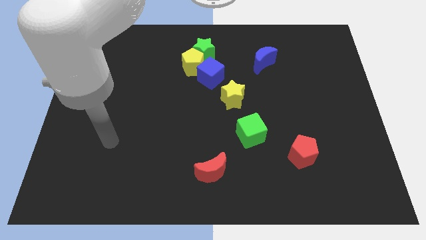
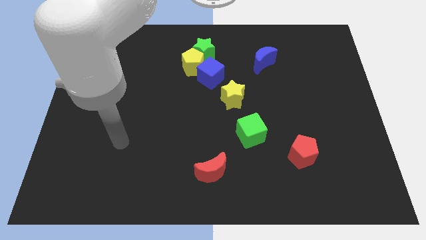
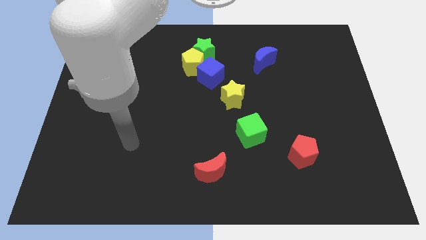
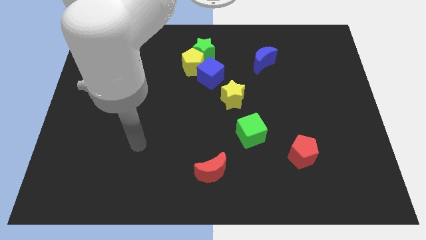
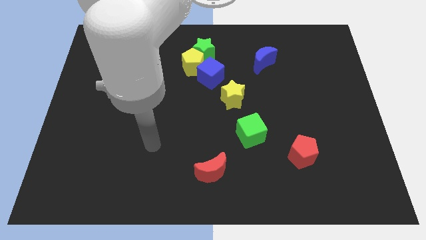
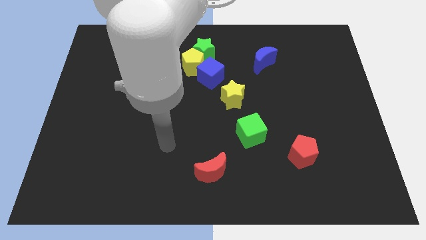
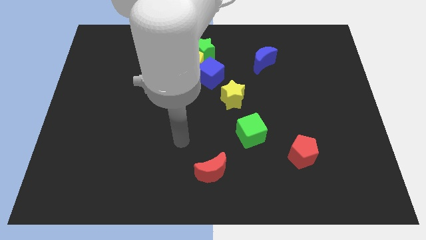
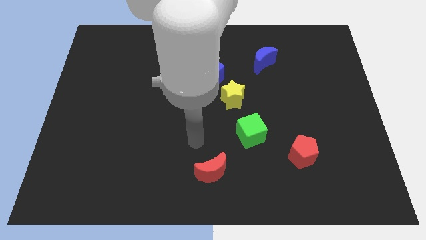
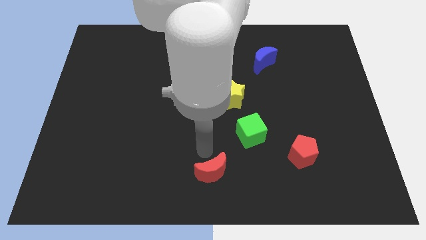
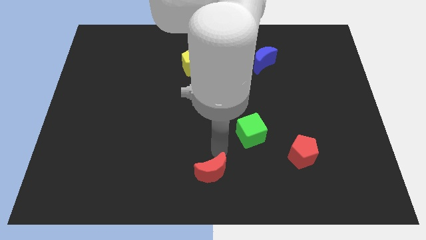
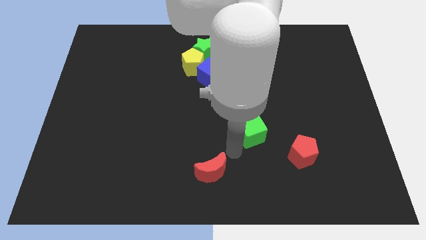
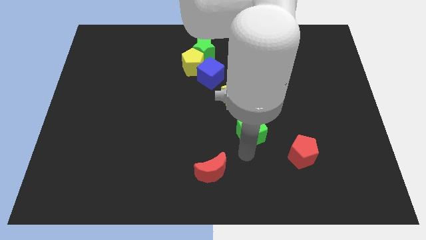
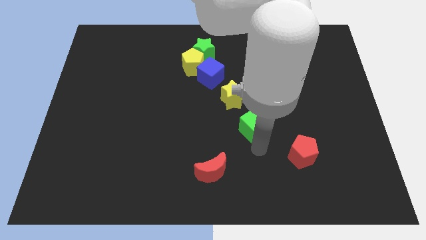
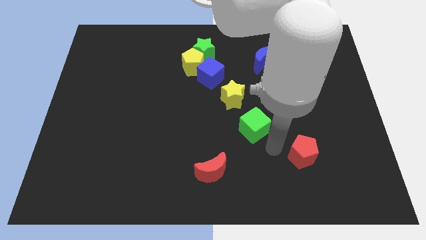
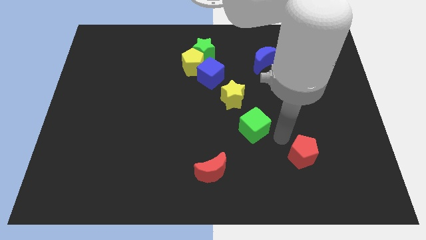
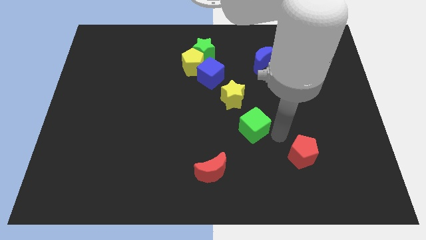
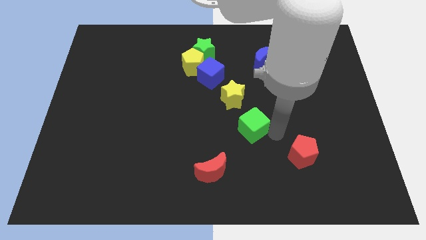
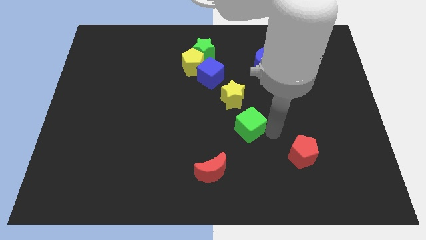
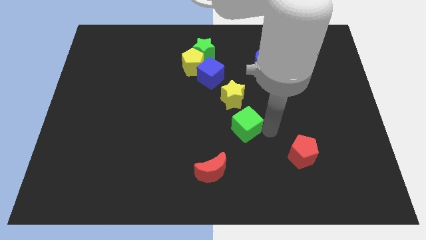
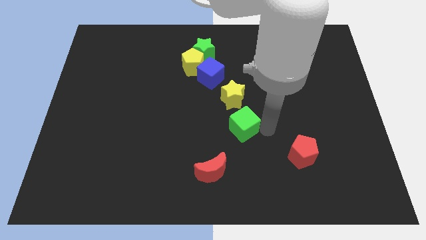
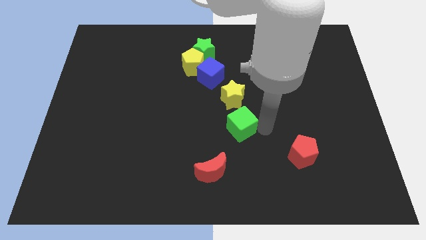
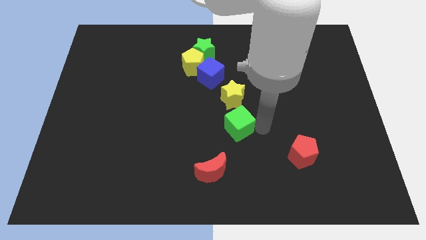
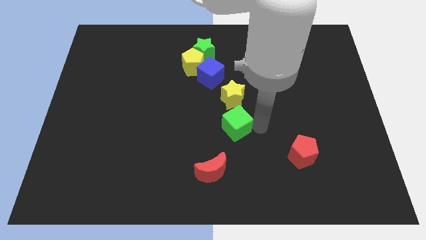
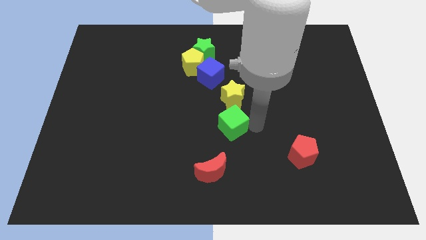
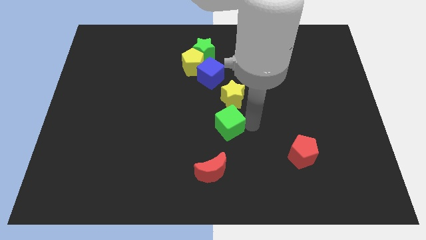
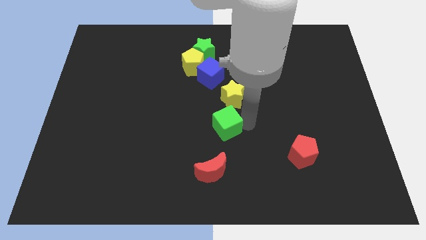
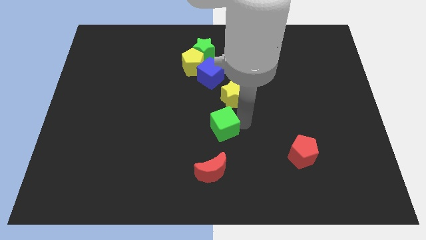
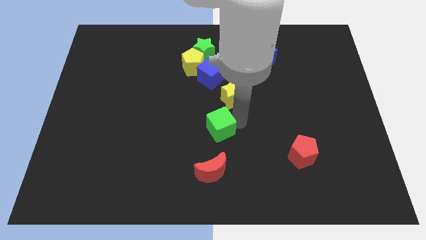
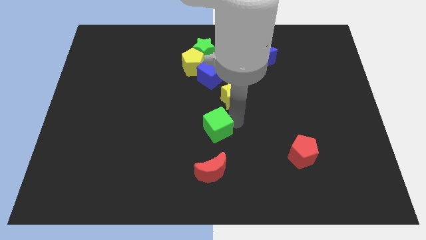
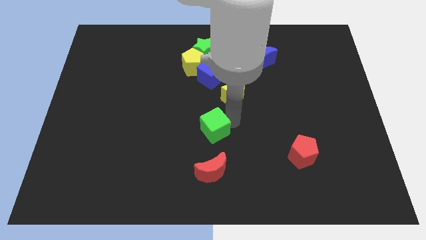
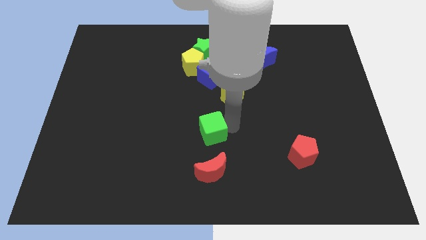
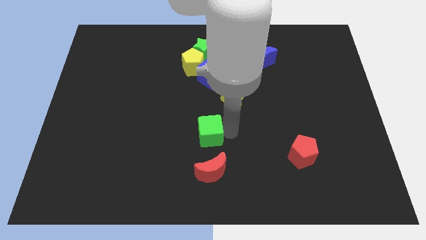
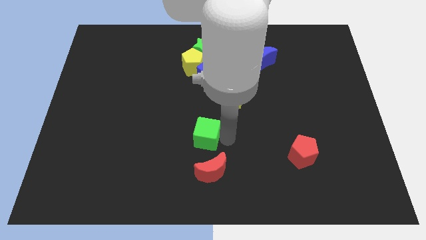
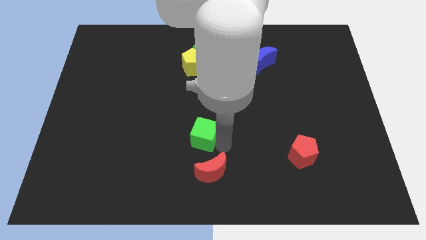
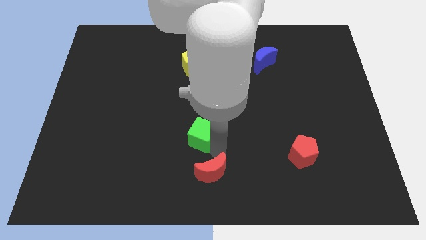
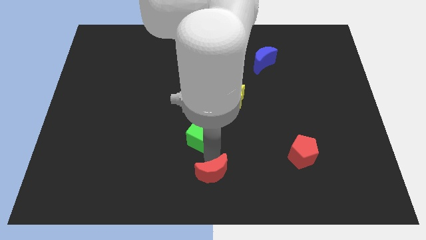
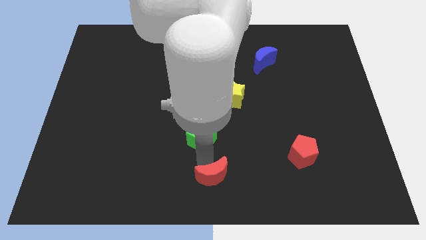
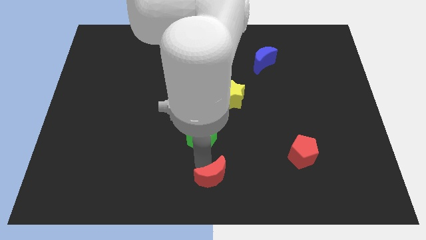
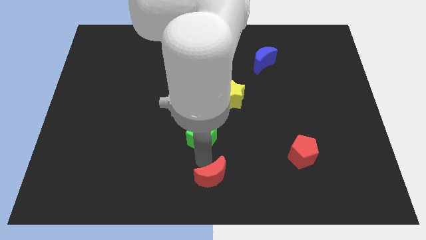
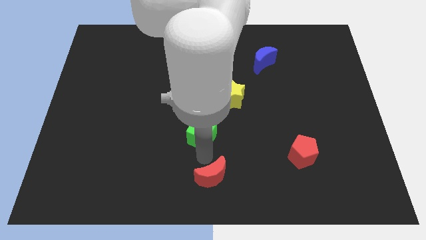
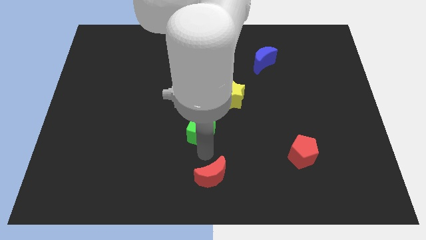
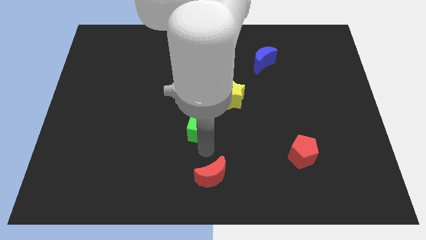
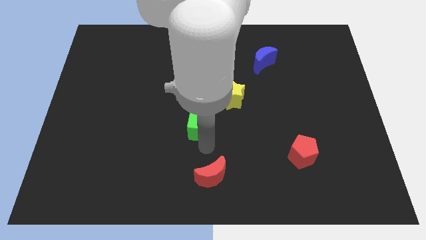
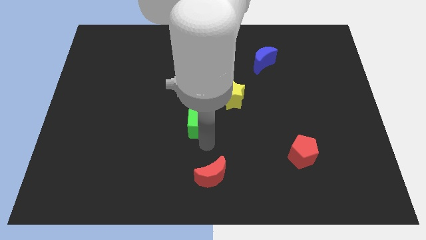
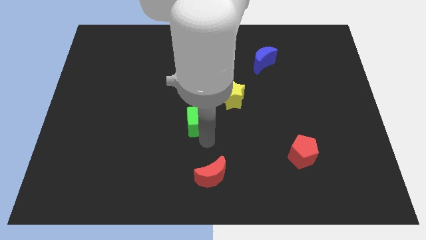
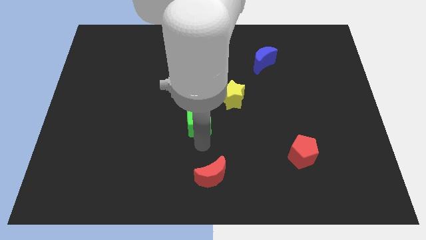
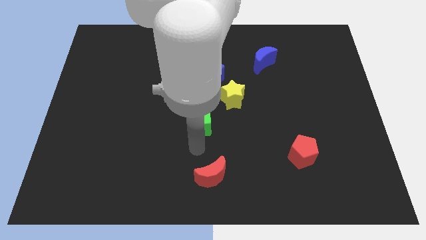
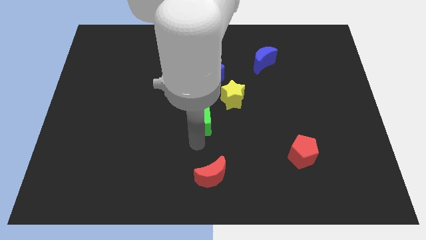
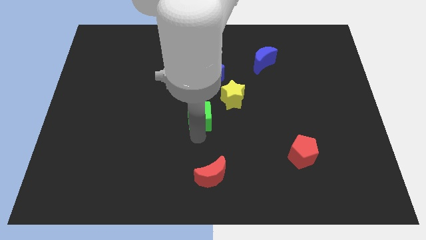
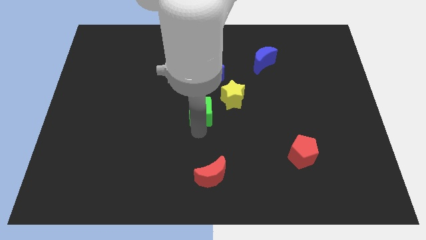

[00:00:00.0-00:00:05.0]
put the green cube to the left of the yellow star

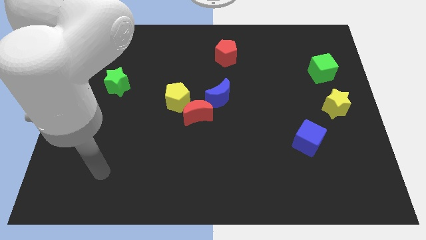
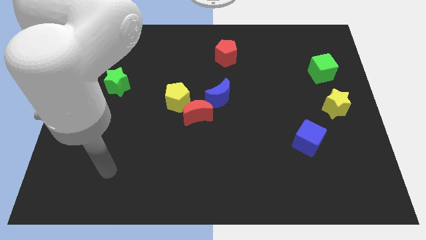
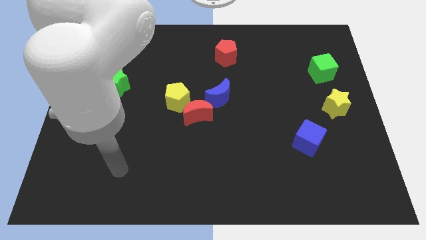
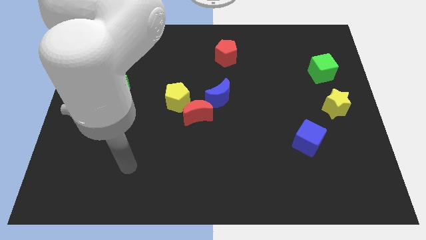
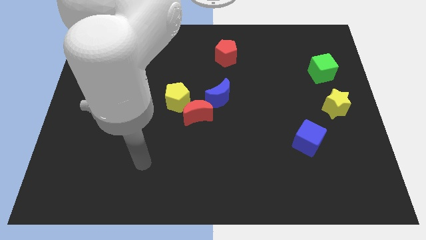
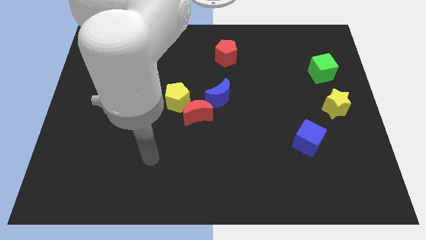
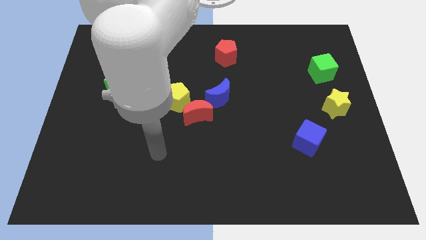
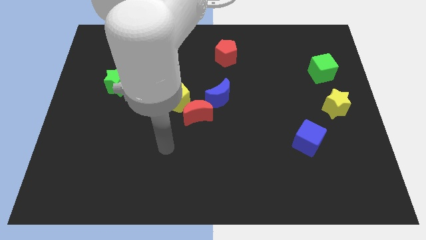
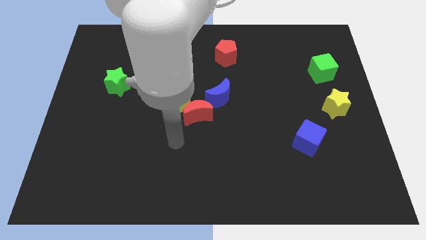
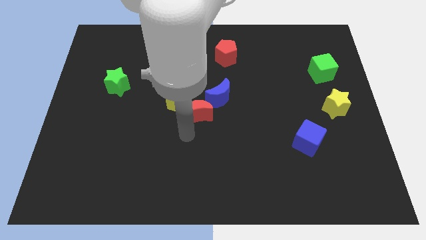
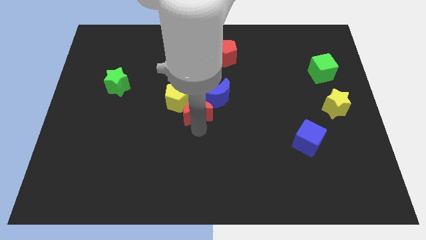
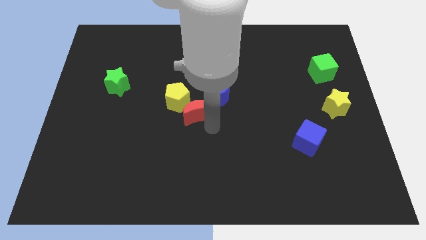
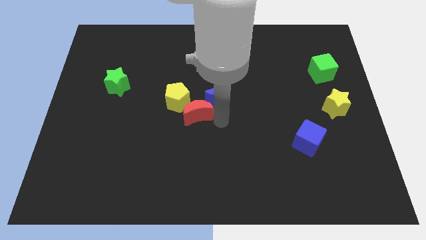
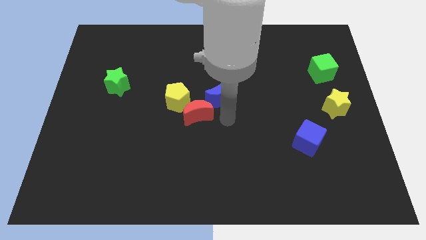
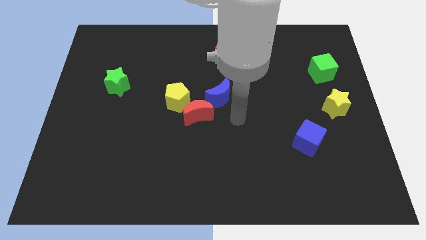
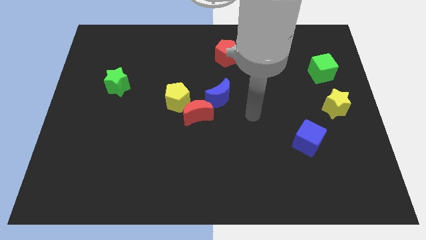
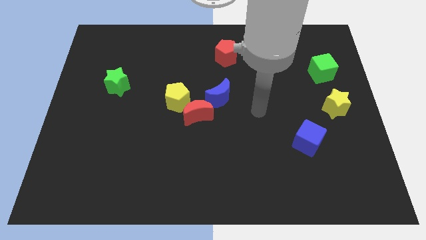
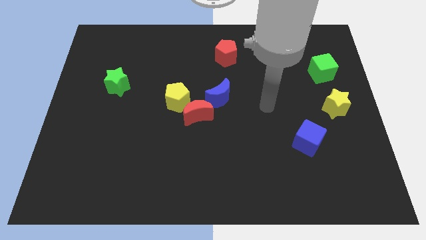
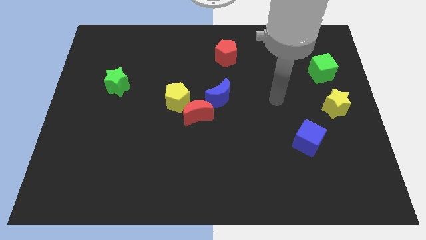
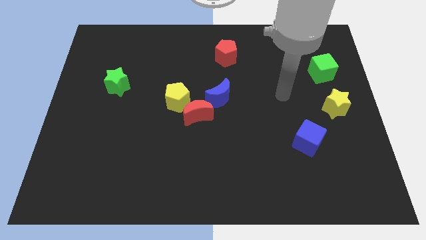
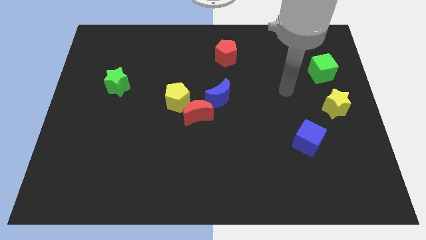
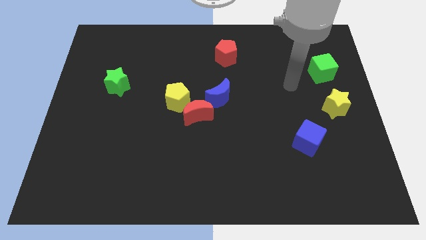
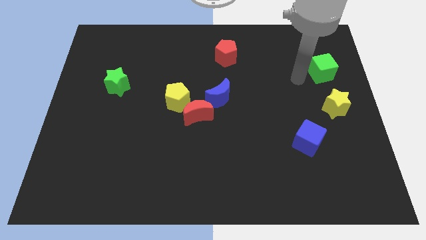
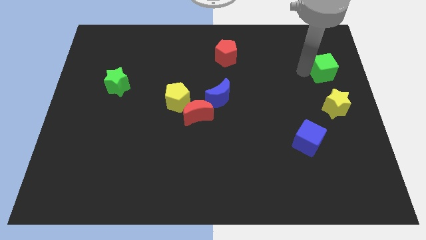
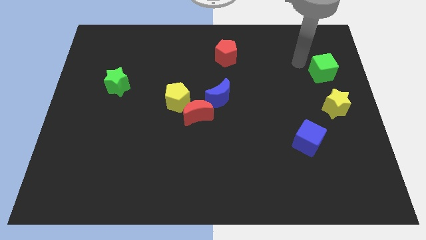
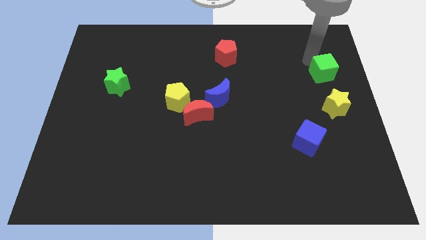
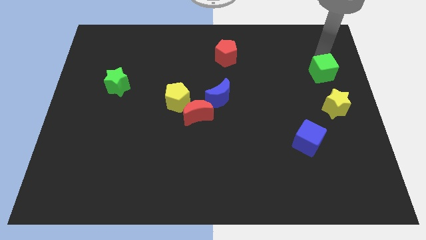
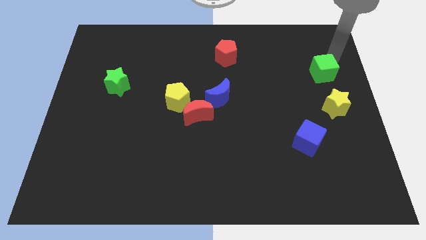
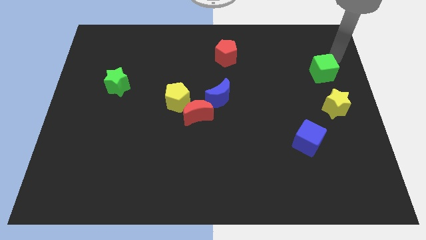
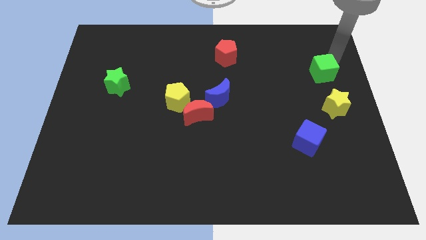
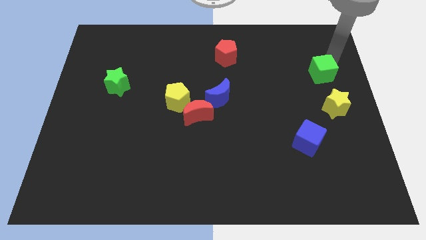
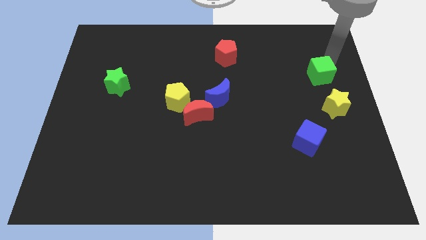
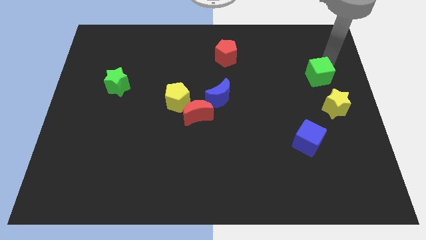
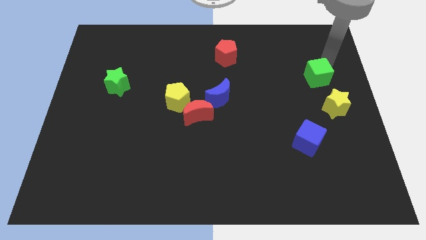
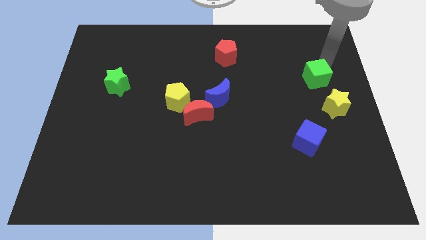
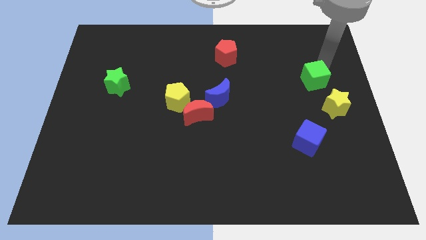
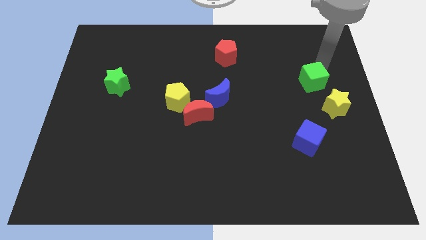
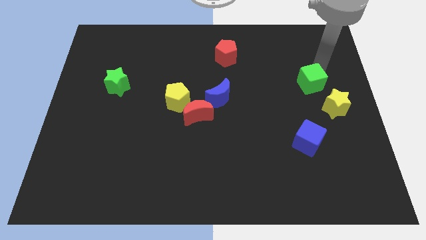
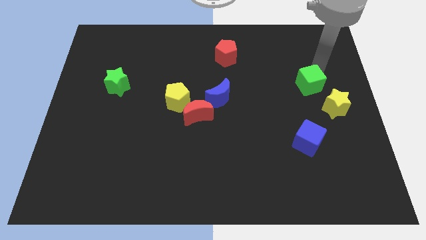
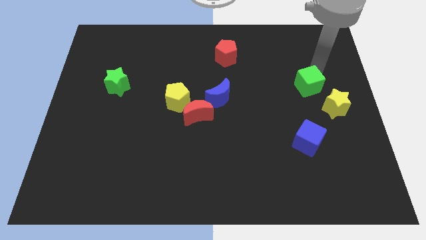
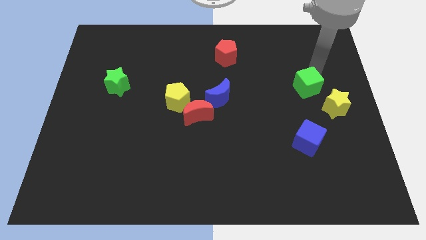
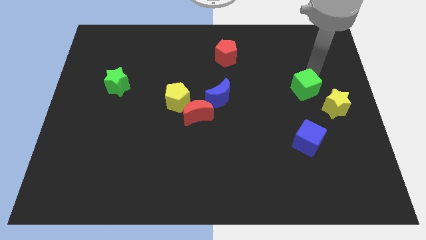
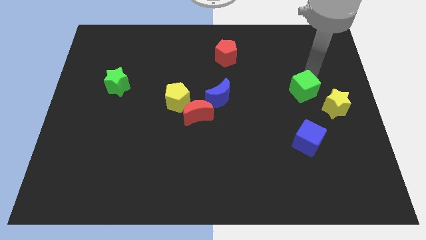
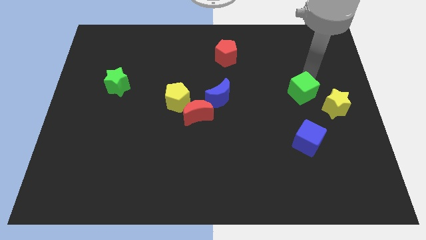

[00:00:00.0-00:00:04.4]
move the green cube just left of the yellow star
